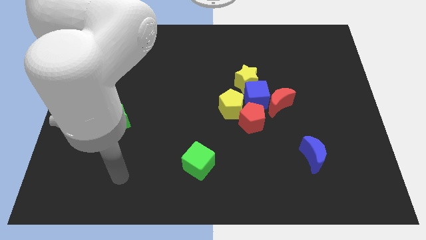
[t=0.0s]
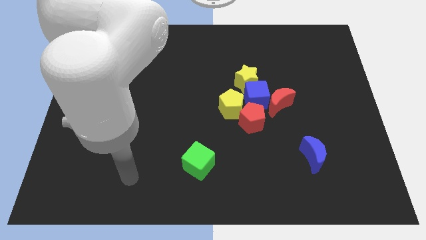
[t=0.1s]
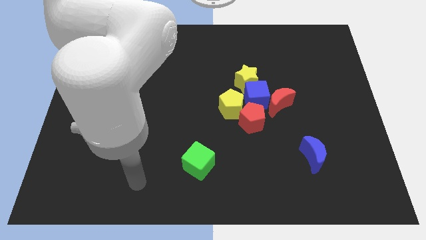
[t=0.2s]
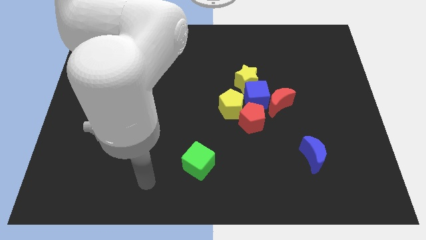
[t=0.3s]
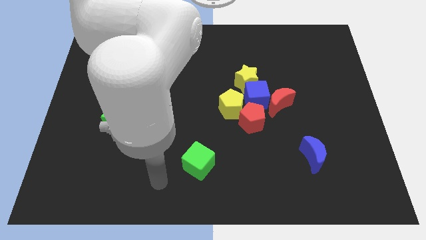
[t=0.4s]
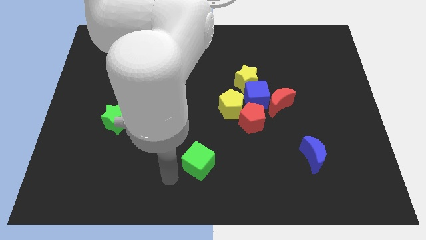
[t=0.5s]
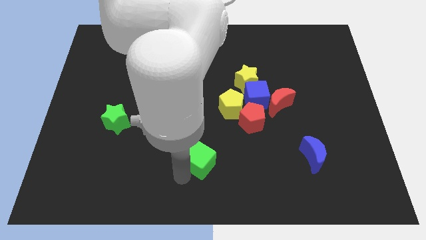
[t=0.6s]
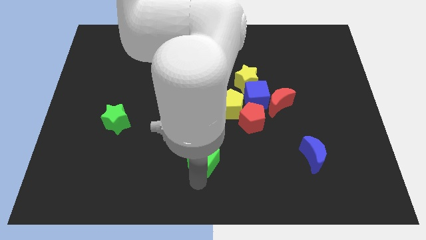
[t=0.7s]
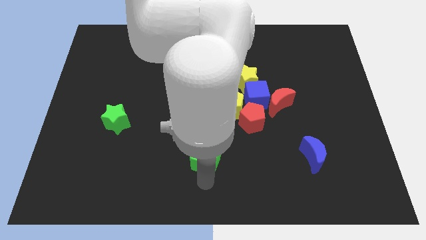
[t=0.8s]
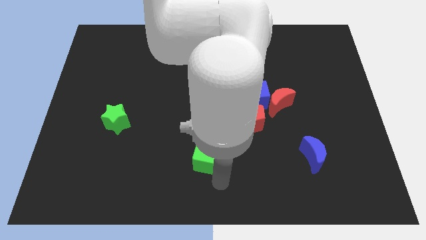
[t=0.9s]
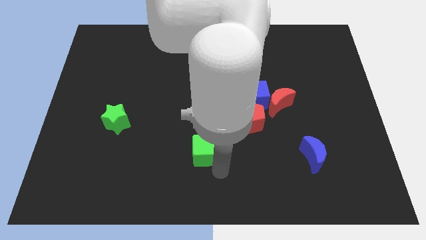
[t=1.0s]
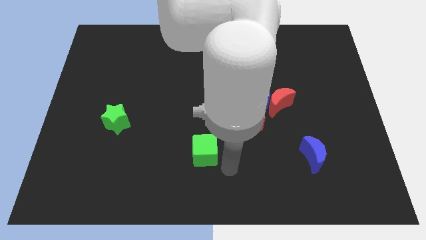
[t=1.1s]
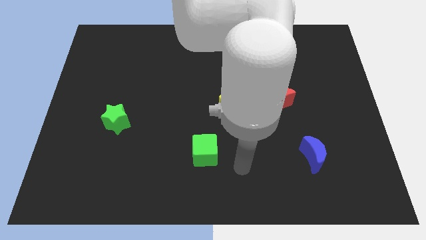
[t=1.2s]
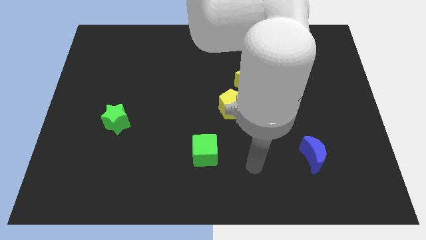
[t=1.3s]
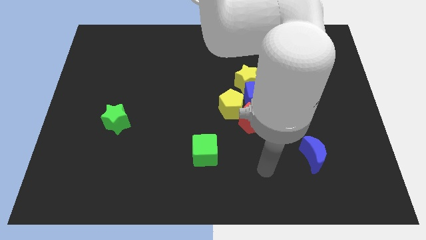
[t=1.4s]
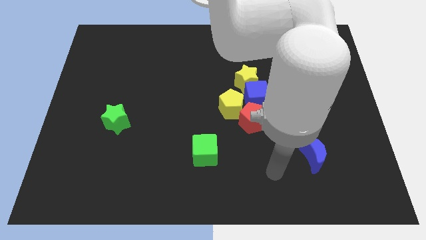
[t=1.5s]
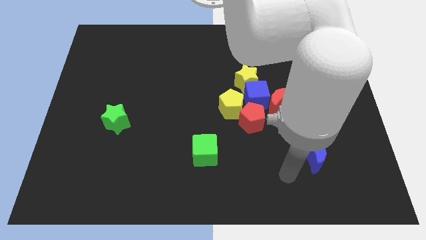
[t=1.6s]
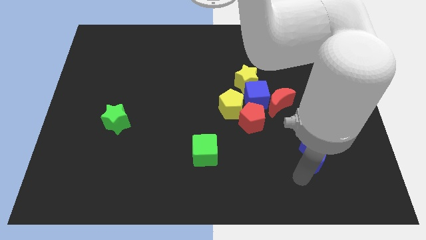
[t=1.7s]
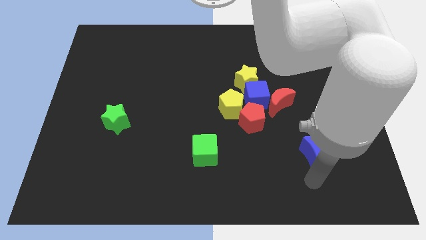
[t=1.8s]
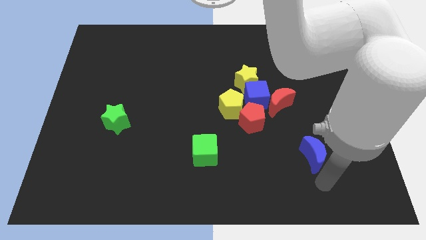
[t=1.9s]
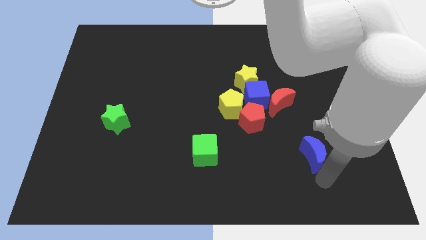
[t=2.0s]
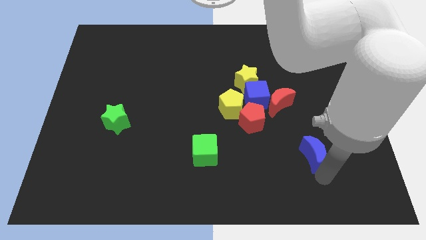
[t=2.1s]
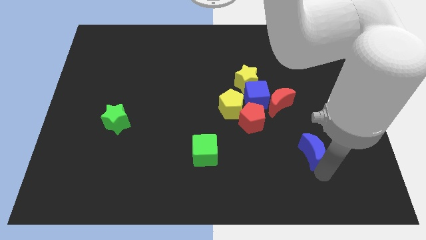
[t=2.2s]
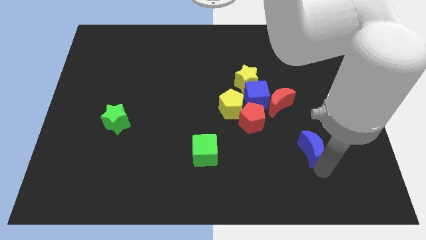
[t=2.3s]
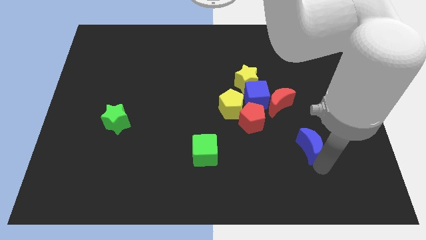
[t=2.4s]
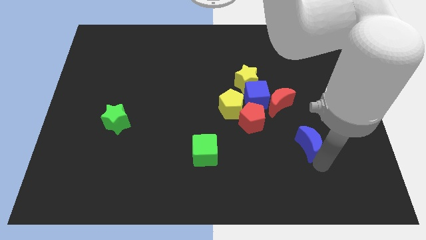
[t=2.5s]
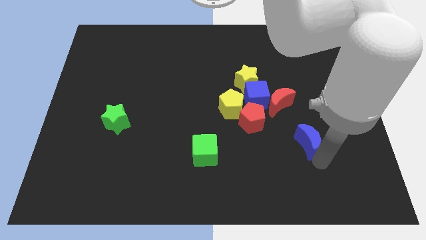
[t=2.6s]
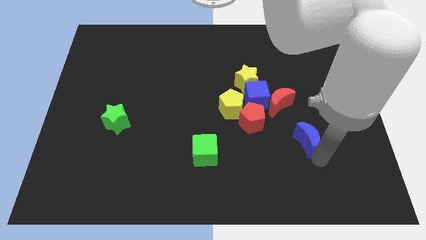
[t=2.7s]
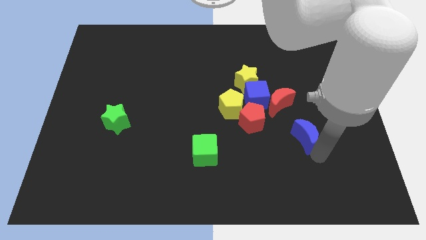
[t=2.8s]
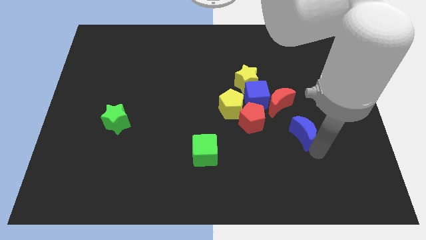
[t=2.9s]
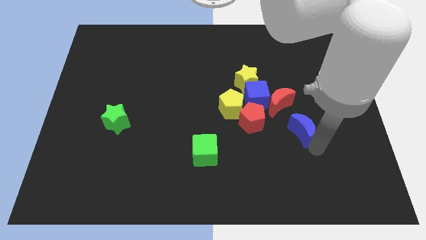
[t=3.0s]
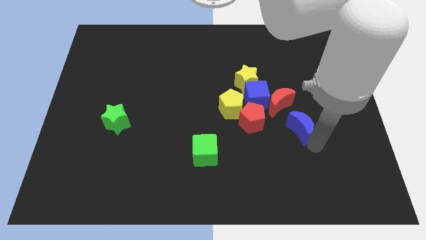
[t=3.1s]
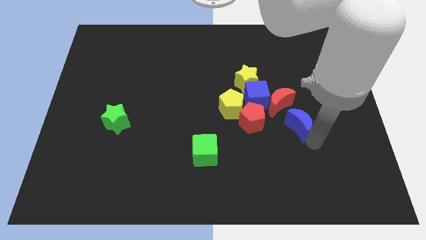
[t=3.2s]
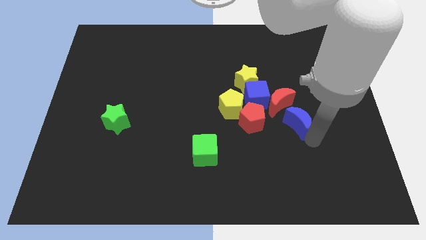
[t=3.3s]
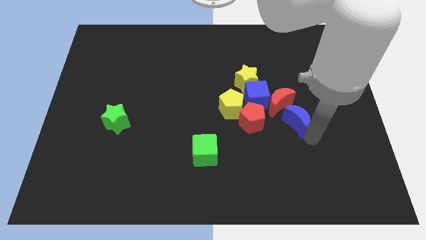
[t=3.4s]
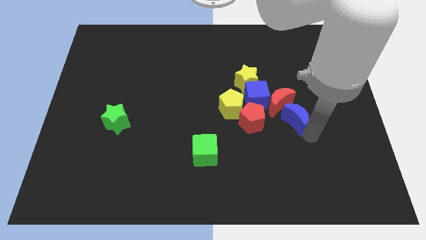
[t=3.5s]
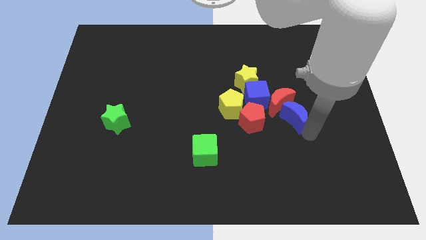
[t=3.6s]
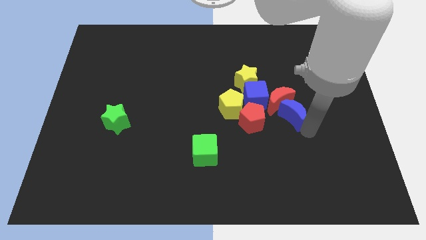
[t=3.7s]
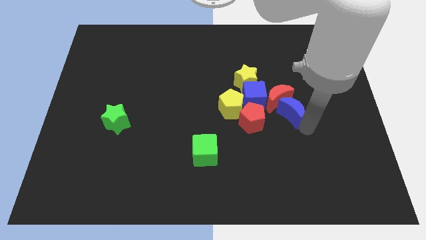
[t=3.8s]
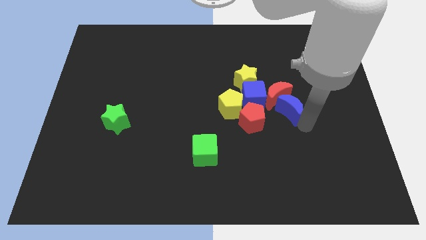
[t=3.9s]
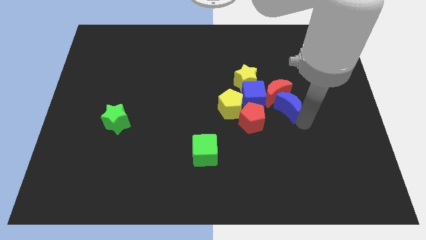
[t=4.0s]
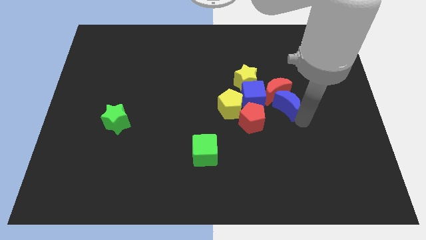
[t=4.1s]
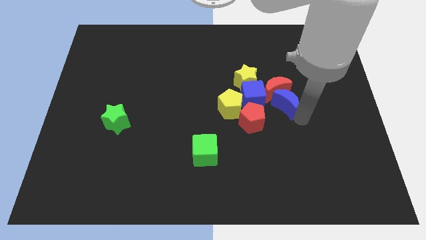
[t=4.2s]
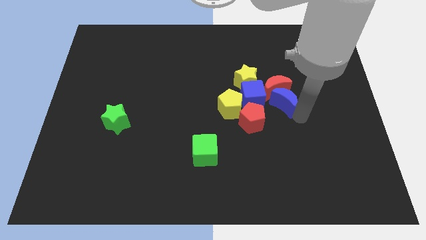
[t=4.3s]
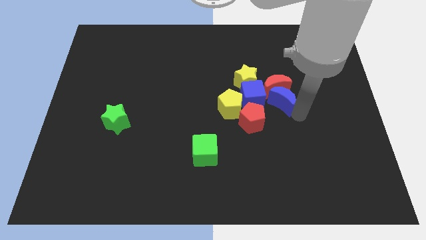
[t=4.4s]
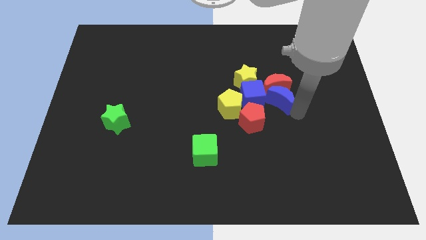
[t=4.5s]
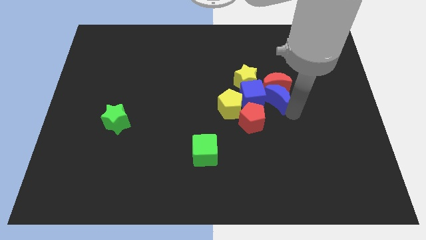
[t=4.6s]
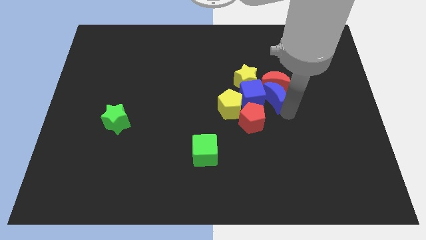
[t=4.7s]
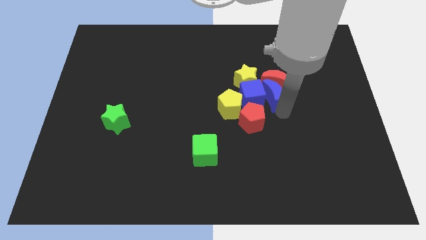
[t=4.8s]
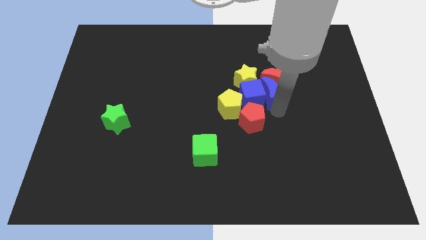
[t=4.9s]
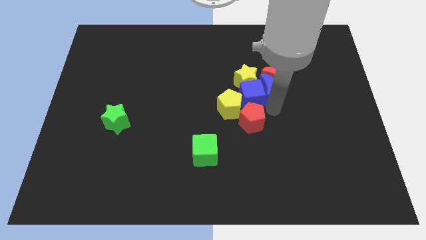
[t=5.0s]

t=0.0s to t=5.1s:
put the blue moon to the yellow star

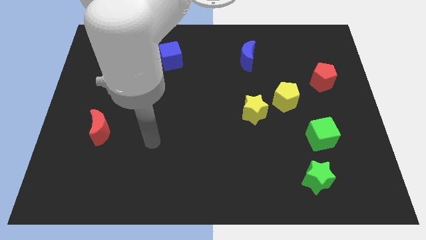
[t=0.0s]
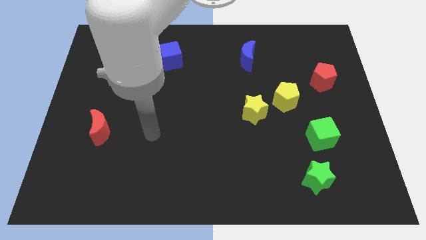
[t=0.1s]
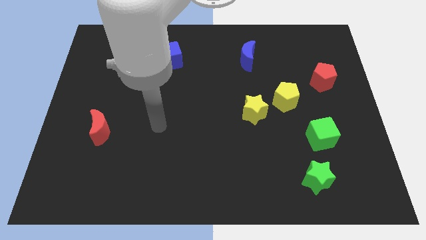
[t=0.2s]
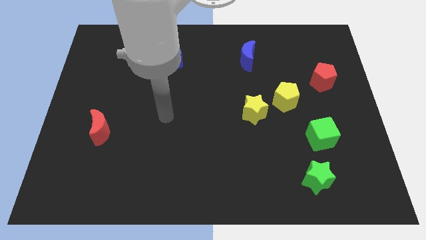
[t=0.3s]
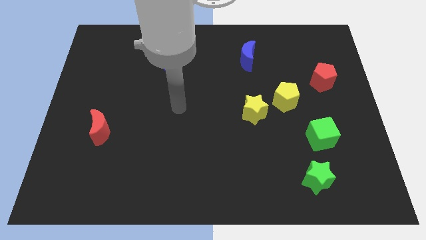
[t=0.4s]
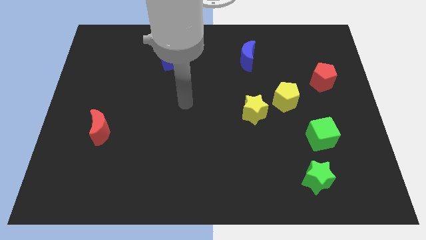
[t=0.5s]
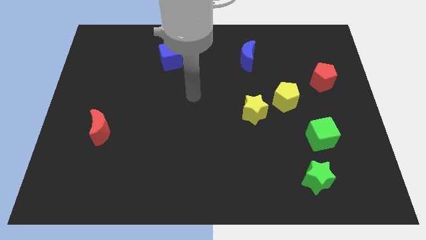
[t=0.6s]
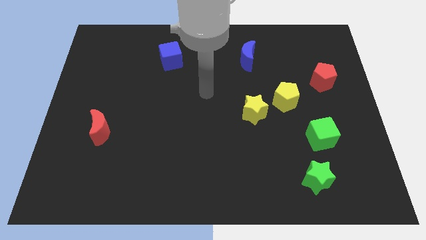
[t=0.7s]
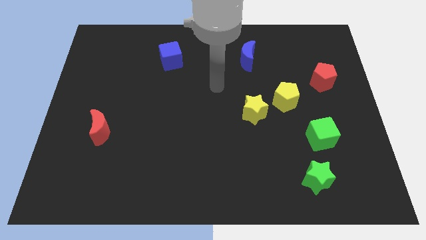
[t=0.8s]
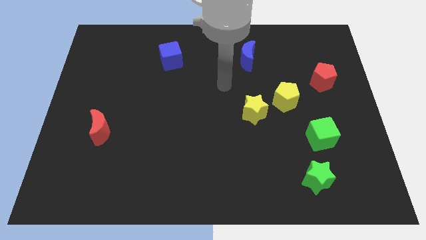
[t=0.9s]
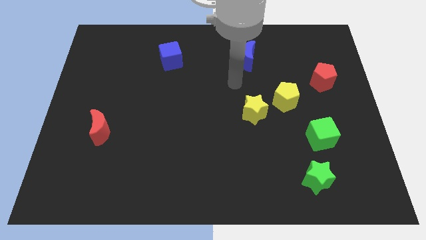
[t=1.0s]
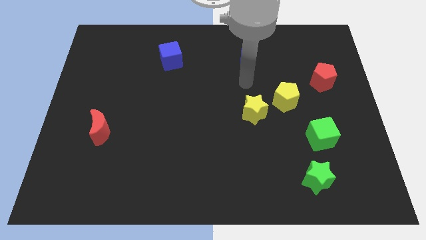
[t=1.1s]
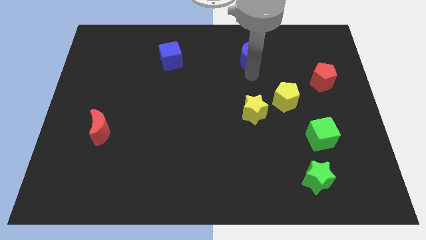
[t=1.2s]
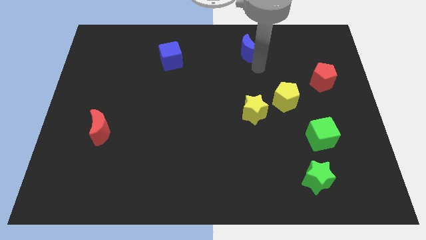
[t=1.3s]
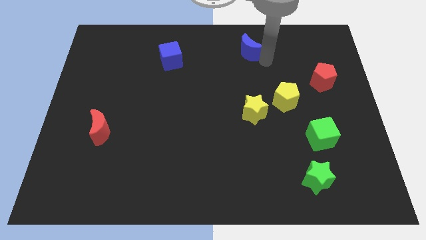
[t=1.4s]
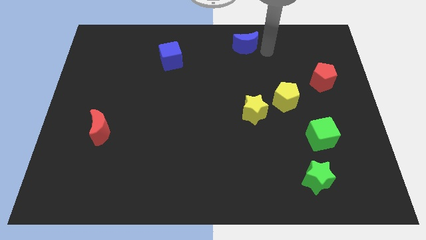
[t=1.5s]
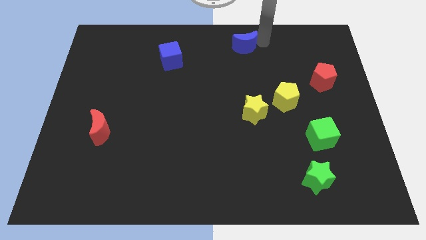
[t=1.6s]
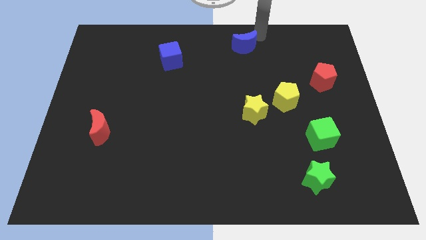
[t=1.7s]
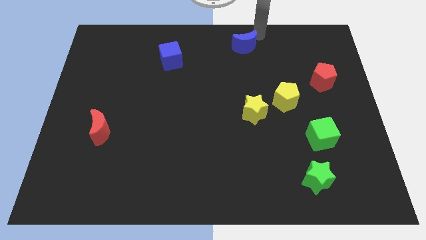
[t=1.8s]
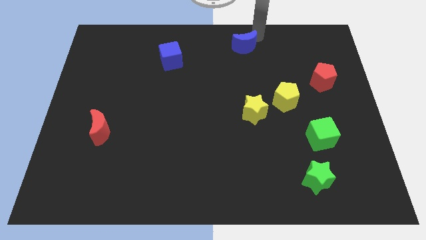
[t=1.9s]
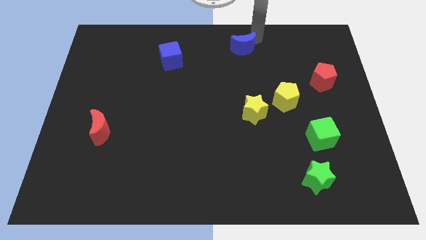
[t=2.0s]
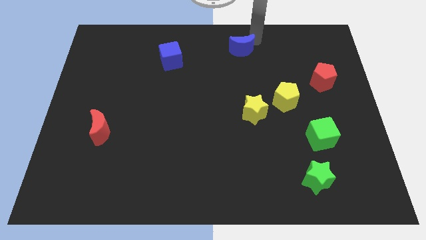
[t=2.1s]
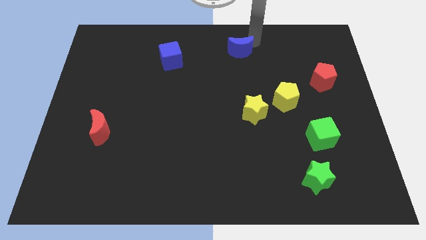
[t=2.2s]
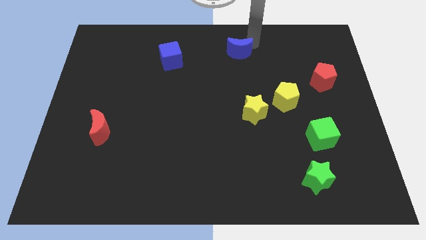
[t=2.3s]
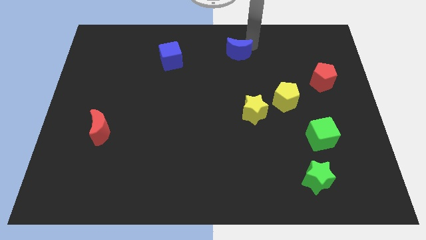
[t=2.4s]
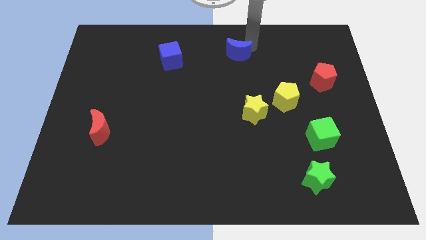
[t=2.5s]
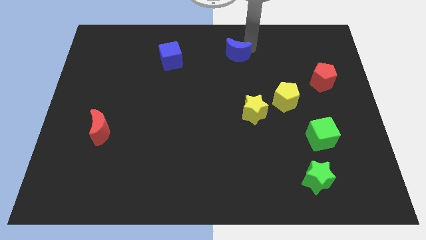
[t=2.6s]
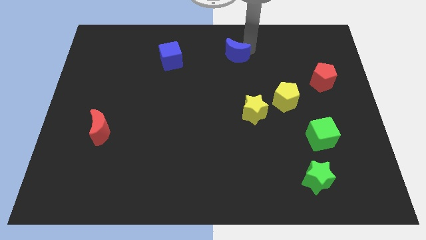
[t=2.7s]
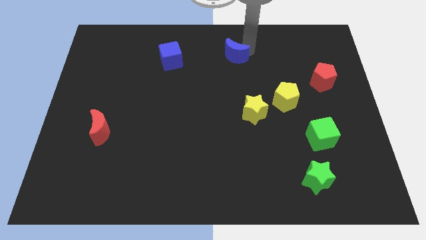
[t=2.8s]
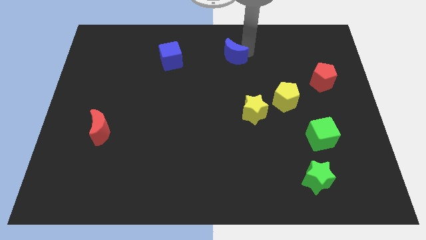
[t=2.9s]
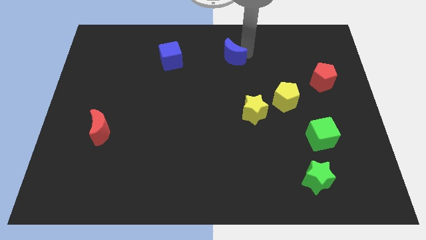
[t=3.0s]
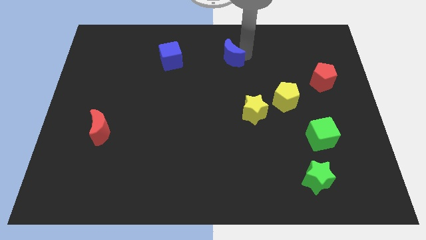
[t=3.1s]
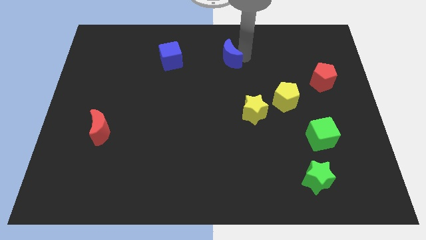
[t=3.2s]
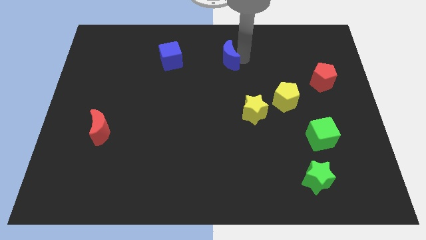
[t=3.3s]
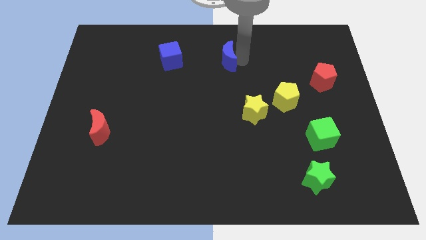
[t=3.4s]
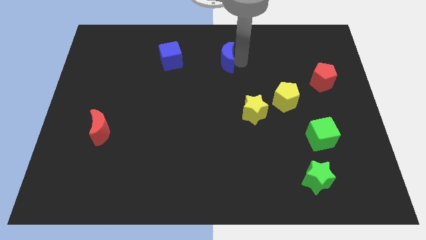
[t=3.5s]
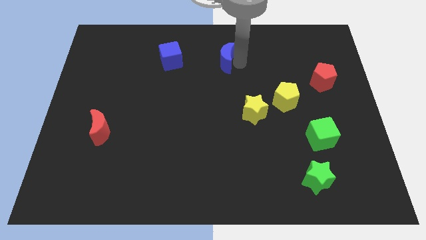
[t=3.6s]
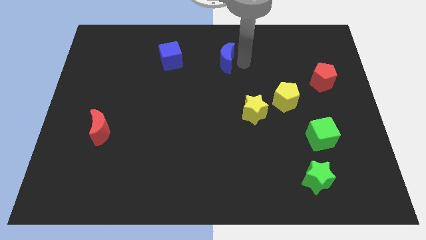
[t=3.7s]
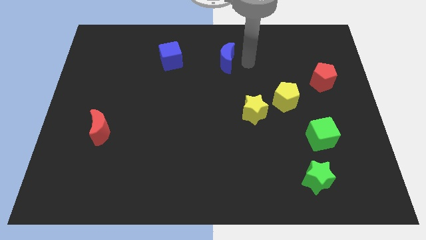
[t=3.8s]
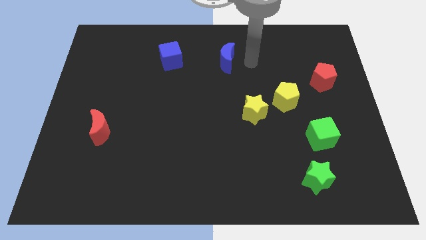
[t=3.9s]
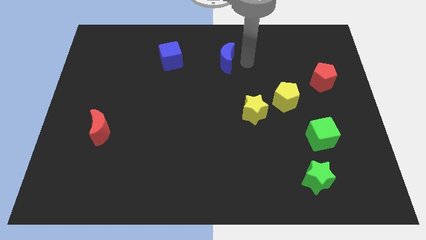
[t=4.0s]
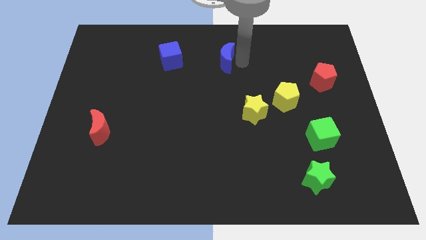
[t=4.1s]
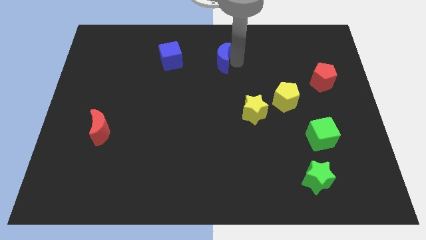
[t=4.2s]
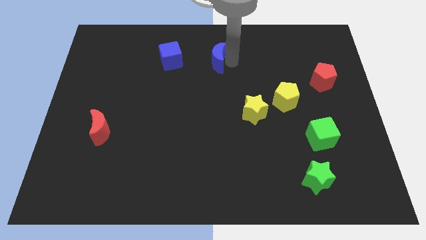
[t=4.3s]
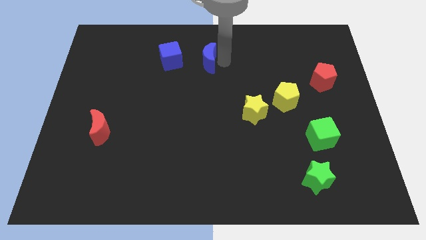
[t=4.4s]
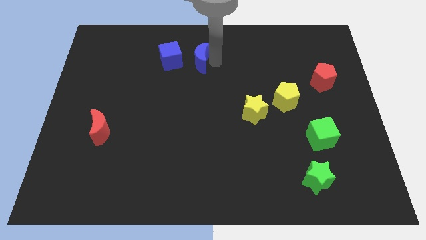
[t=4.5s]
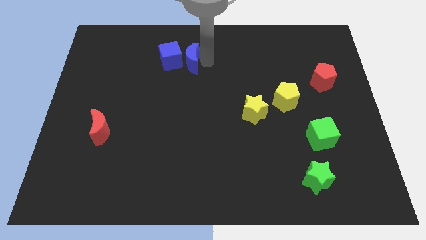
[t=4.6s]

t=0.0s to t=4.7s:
push the blue moon next to the blue cube
